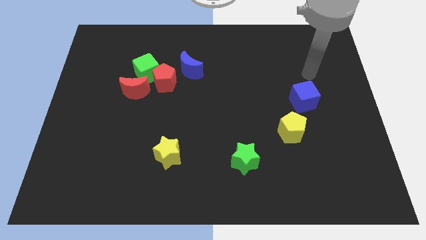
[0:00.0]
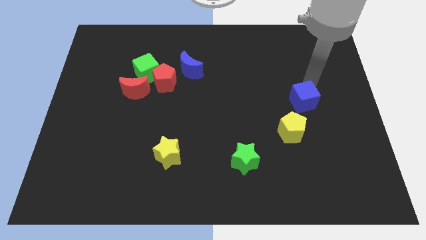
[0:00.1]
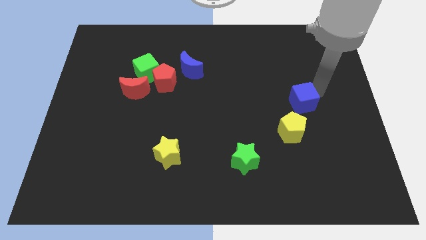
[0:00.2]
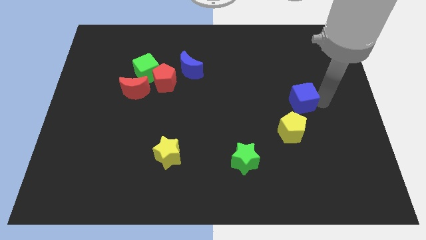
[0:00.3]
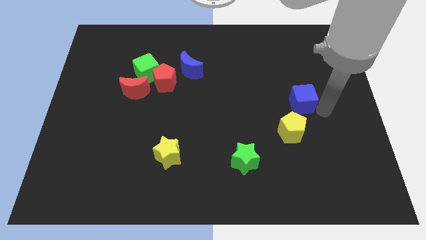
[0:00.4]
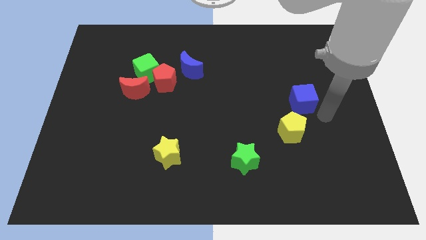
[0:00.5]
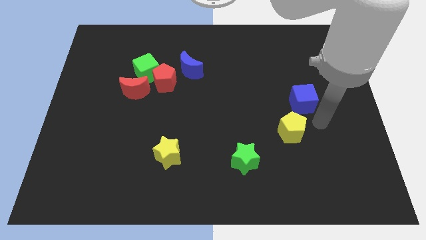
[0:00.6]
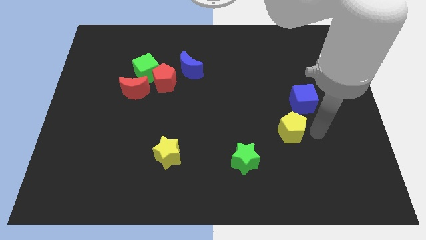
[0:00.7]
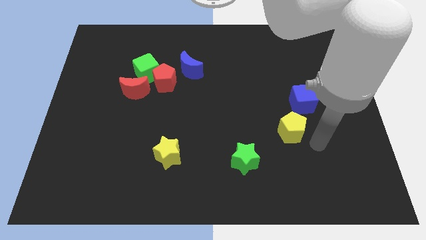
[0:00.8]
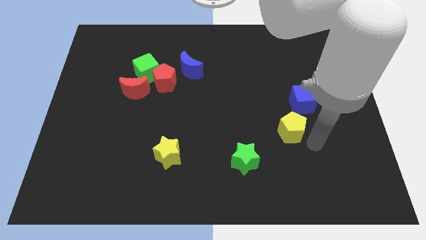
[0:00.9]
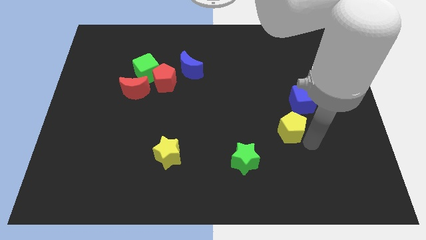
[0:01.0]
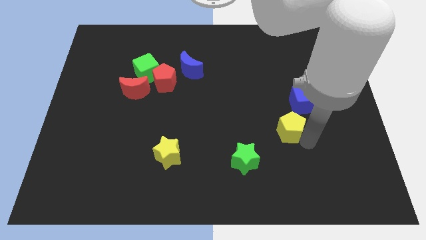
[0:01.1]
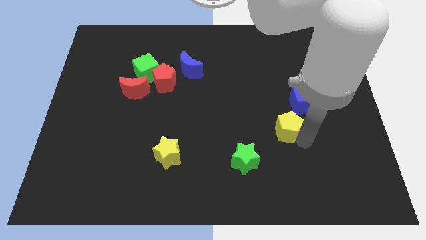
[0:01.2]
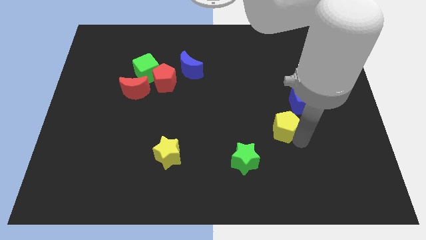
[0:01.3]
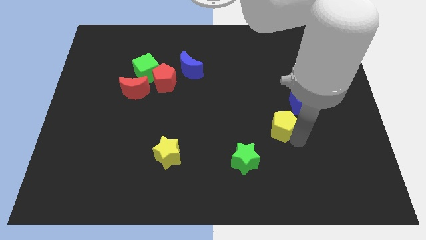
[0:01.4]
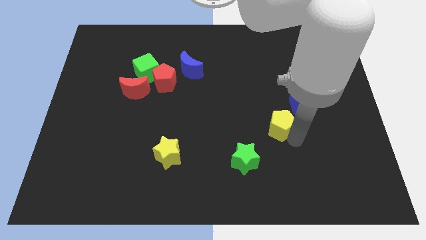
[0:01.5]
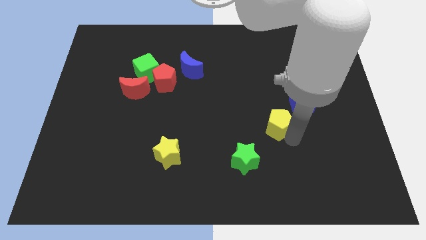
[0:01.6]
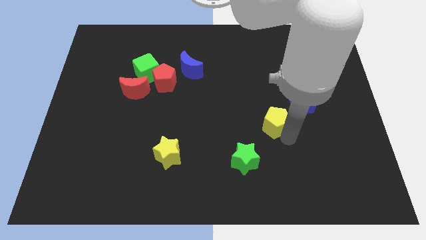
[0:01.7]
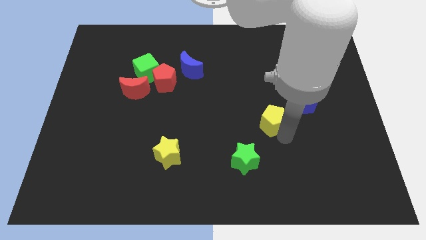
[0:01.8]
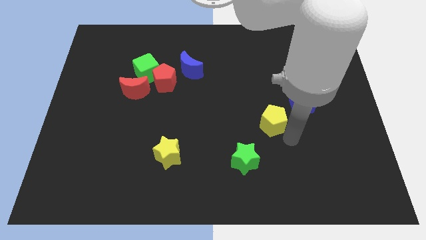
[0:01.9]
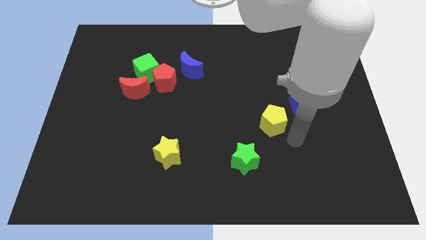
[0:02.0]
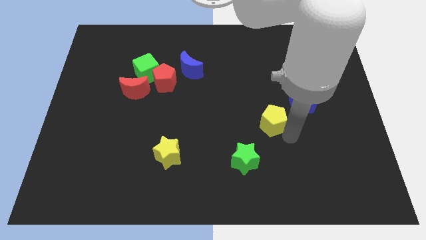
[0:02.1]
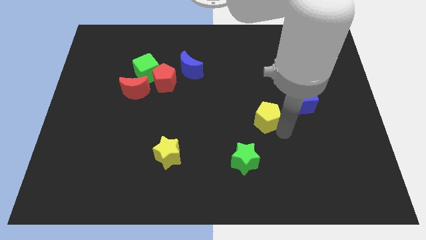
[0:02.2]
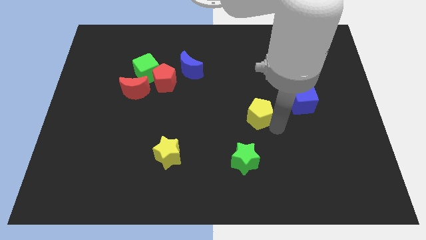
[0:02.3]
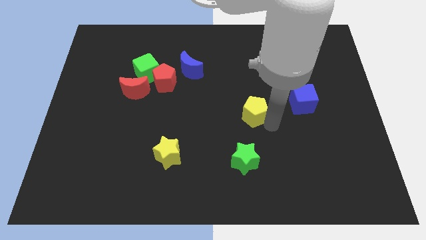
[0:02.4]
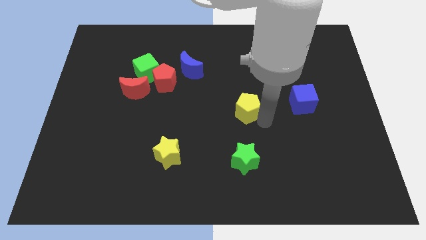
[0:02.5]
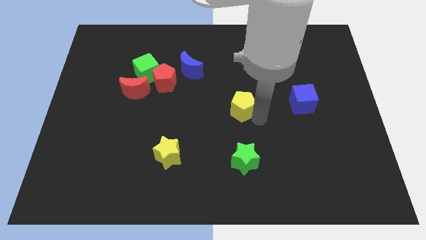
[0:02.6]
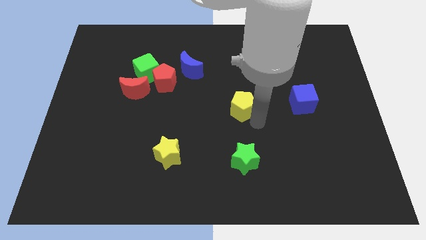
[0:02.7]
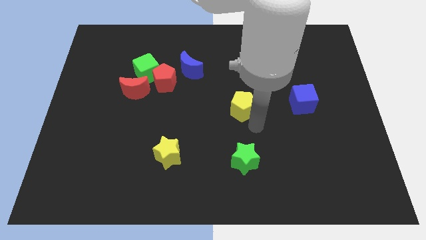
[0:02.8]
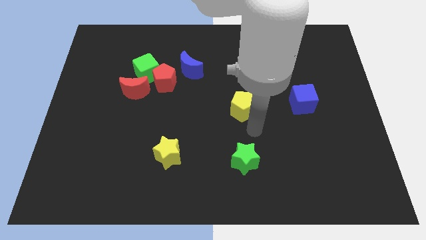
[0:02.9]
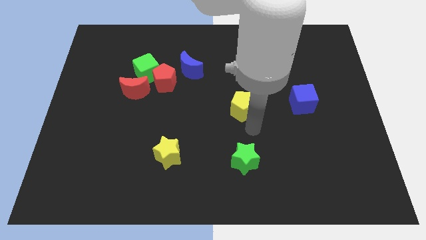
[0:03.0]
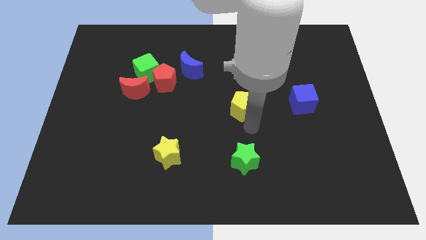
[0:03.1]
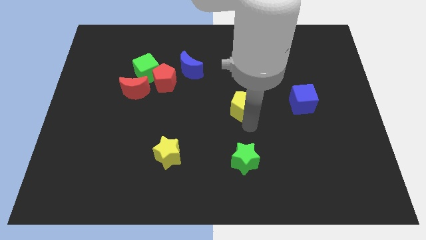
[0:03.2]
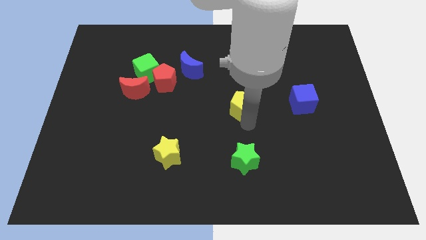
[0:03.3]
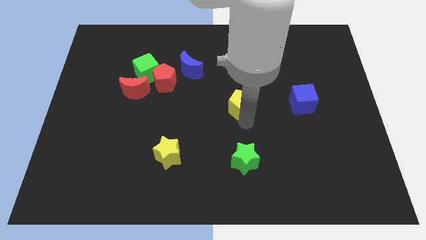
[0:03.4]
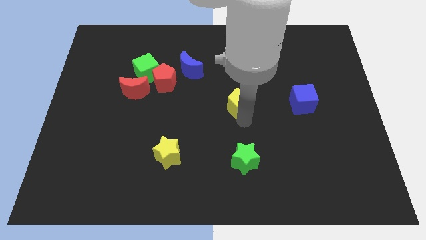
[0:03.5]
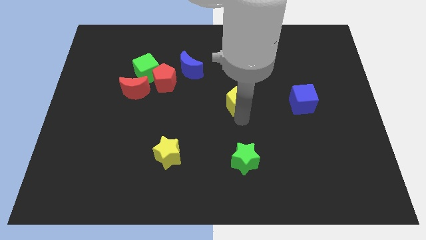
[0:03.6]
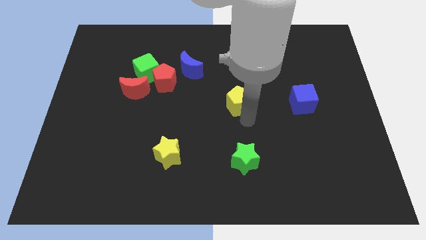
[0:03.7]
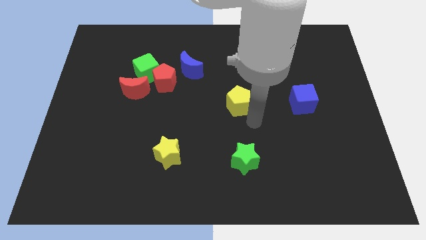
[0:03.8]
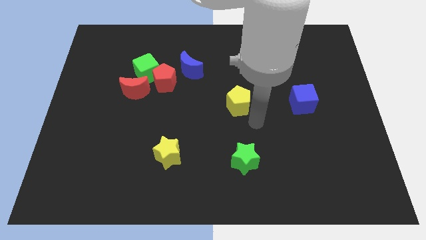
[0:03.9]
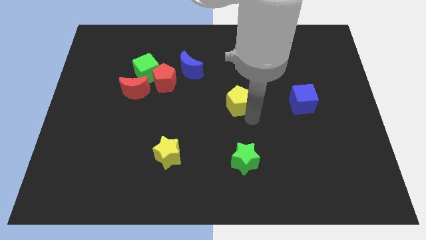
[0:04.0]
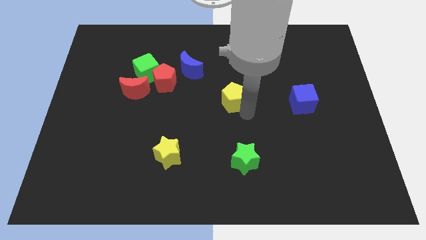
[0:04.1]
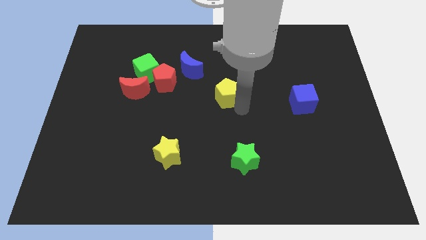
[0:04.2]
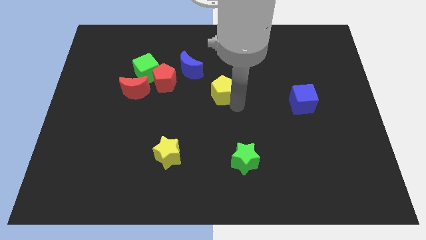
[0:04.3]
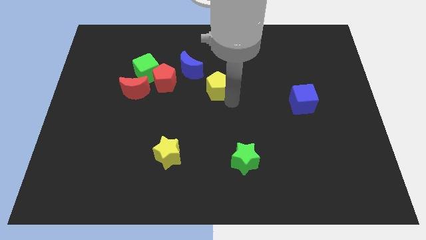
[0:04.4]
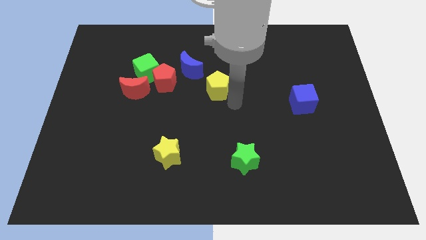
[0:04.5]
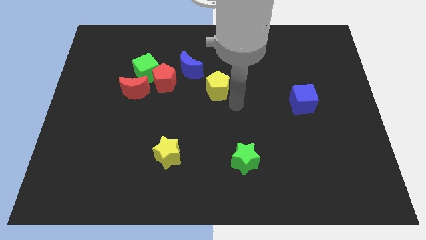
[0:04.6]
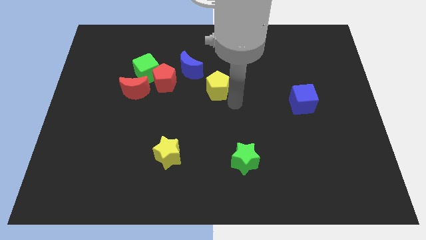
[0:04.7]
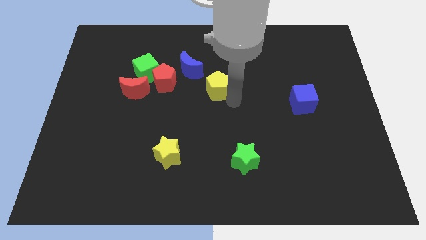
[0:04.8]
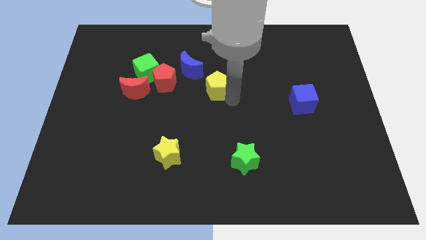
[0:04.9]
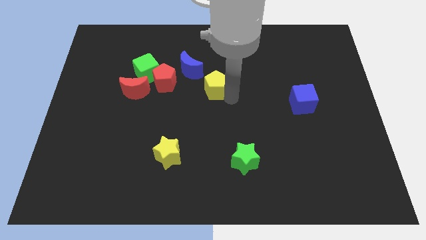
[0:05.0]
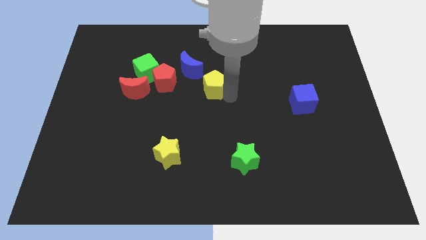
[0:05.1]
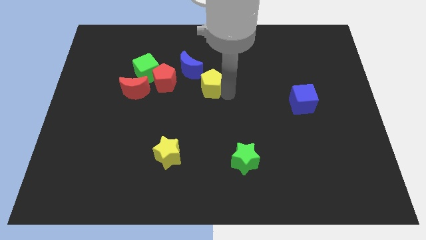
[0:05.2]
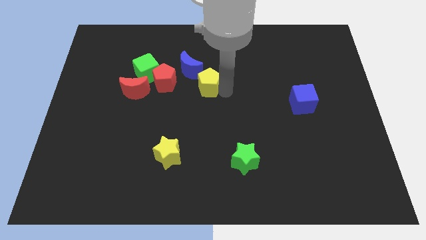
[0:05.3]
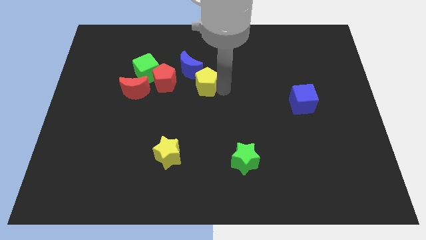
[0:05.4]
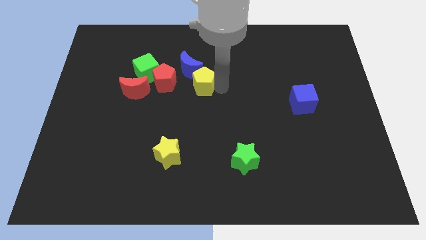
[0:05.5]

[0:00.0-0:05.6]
move the yellow pentagon to the blue moon

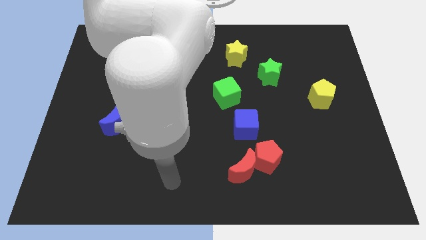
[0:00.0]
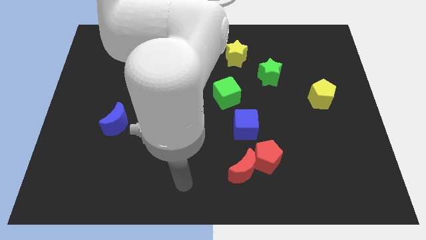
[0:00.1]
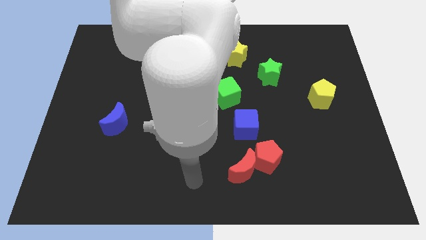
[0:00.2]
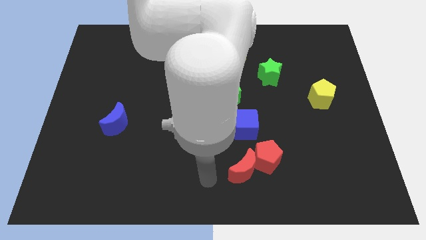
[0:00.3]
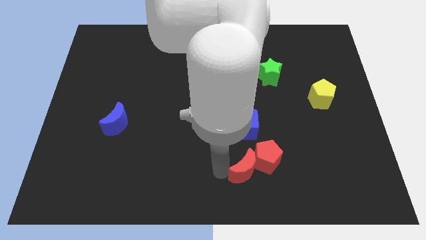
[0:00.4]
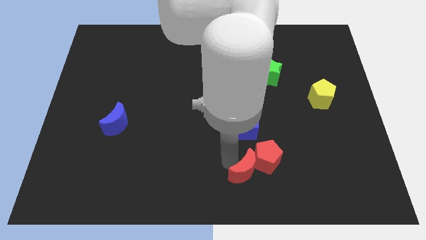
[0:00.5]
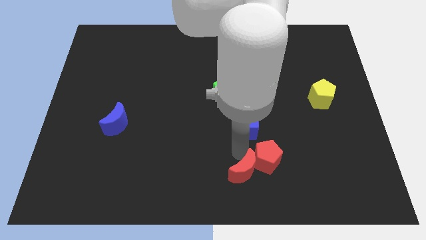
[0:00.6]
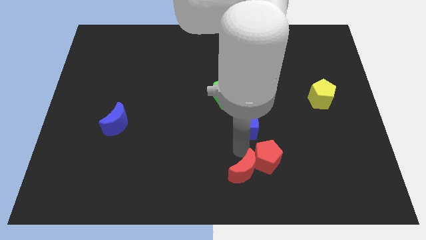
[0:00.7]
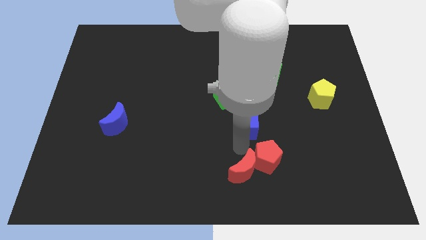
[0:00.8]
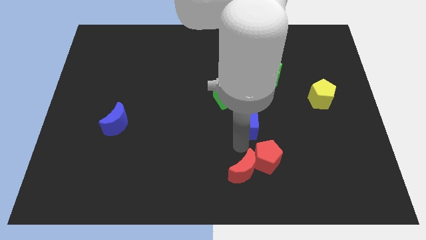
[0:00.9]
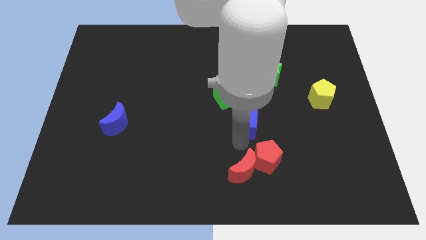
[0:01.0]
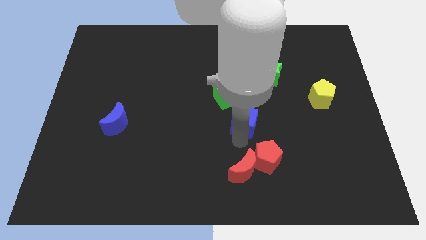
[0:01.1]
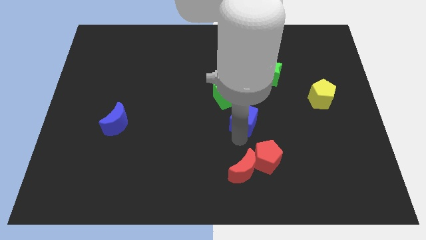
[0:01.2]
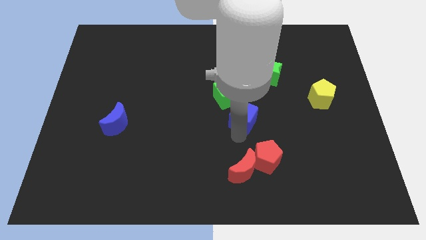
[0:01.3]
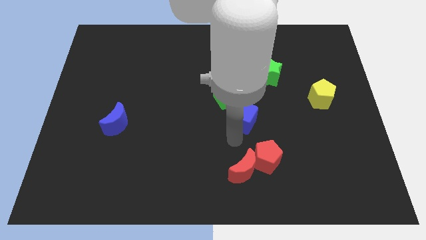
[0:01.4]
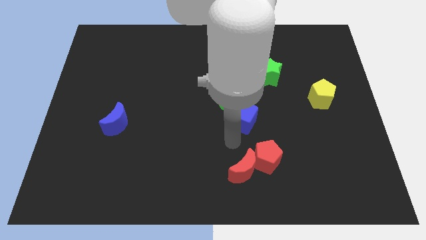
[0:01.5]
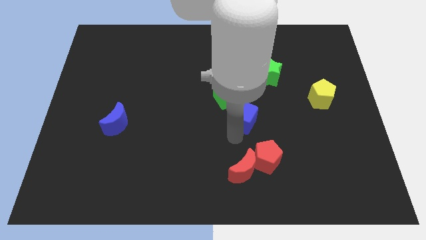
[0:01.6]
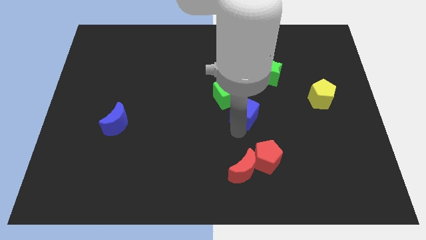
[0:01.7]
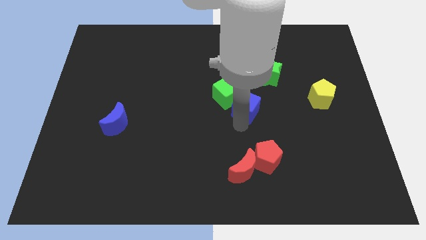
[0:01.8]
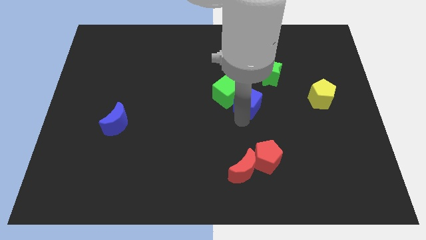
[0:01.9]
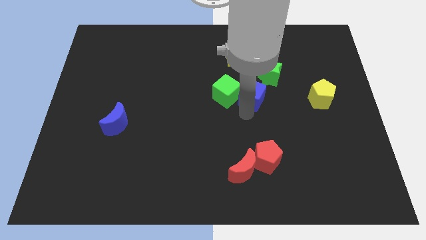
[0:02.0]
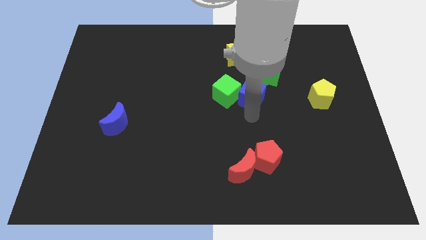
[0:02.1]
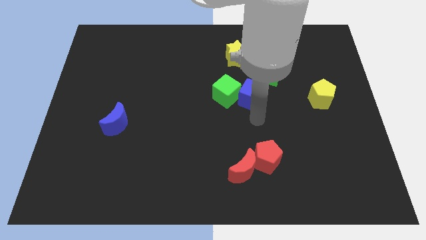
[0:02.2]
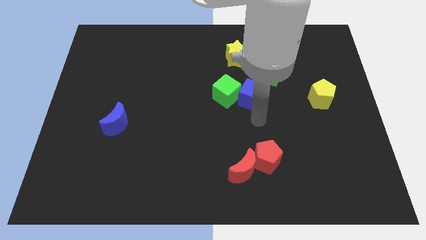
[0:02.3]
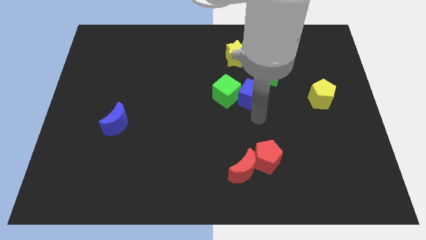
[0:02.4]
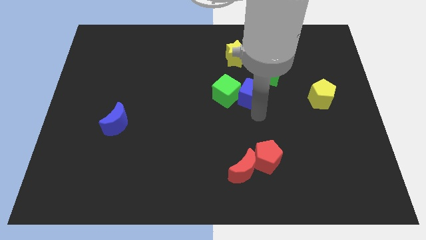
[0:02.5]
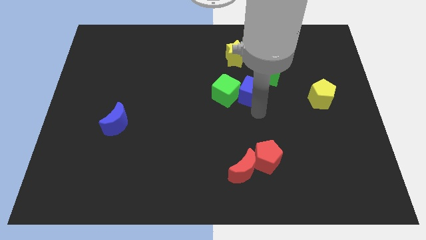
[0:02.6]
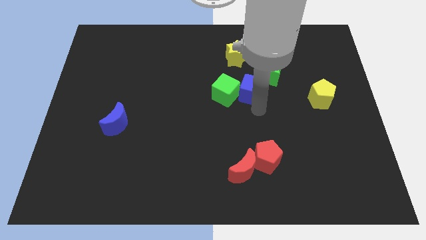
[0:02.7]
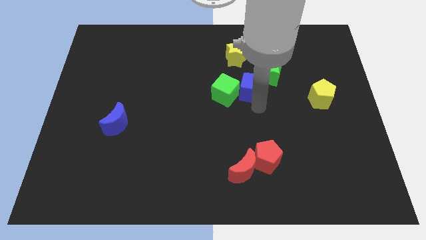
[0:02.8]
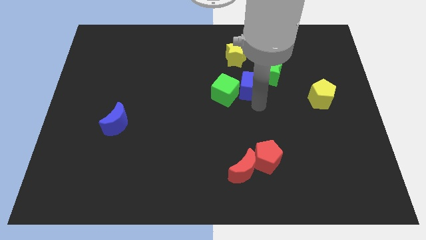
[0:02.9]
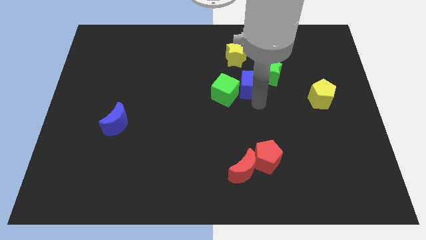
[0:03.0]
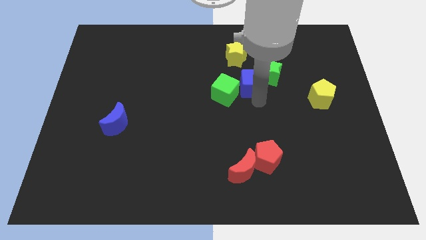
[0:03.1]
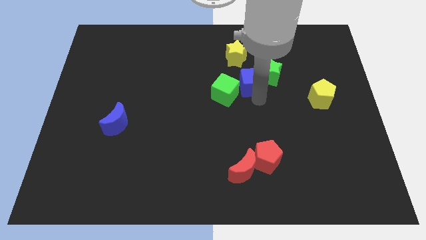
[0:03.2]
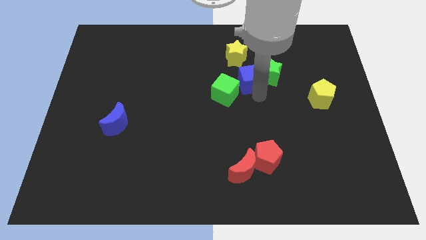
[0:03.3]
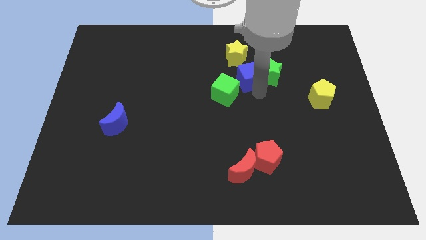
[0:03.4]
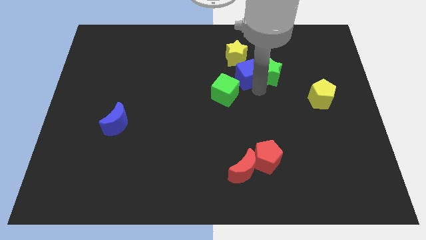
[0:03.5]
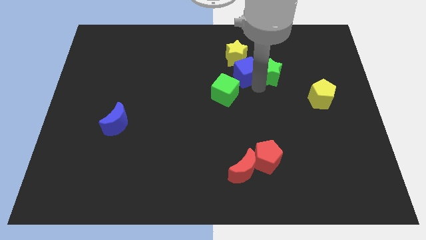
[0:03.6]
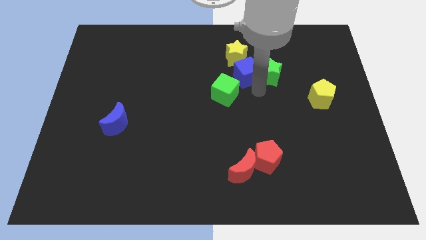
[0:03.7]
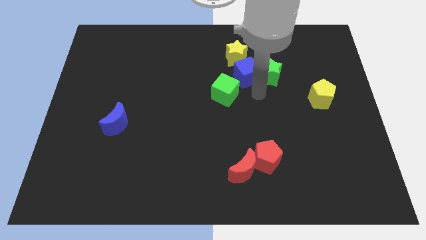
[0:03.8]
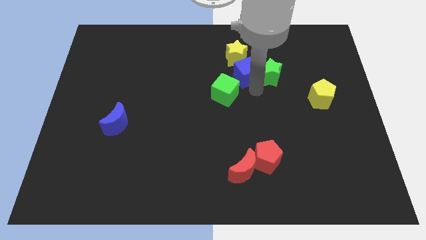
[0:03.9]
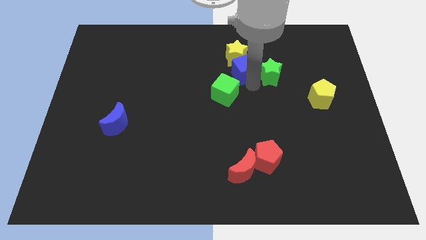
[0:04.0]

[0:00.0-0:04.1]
move the blue cube towards the yellow star
